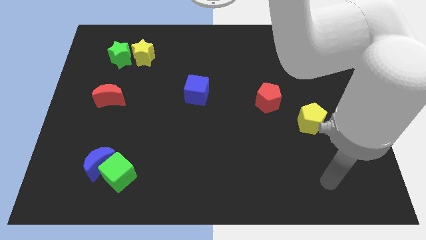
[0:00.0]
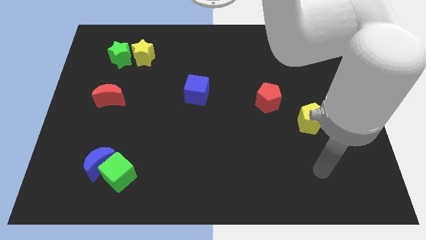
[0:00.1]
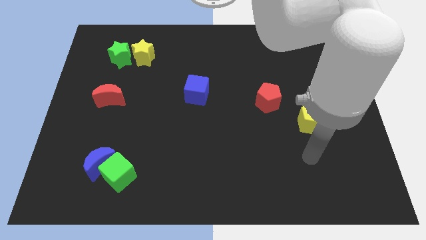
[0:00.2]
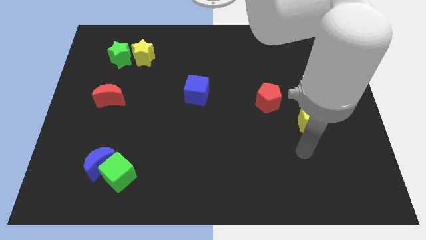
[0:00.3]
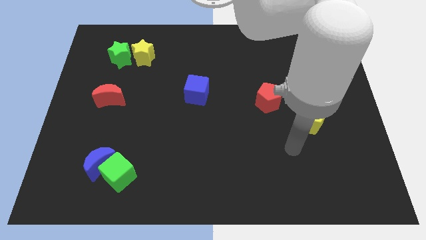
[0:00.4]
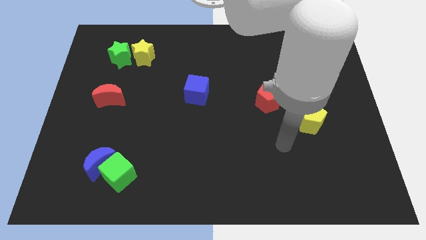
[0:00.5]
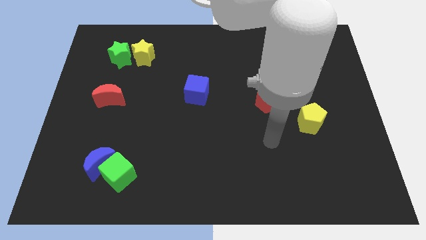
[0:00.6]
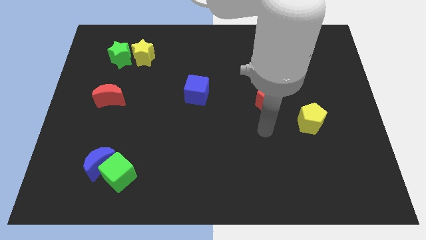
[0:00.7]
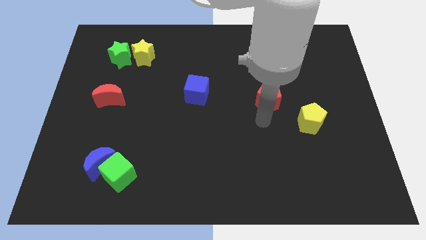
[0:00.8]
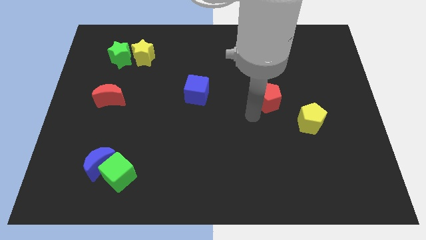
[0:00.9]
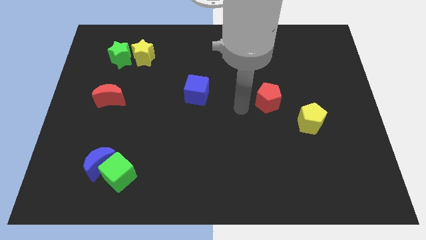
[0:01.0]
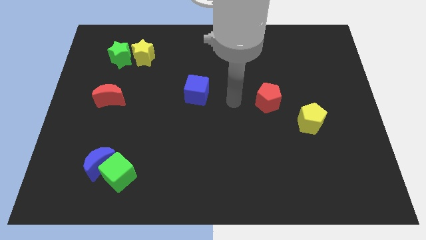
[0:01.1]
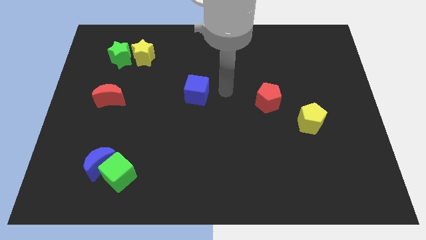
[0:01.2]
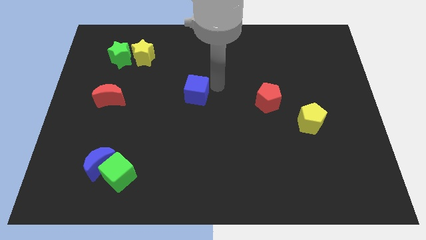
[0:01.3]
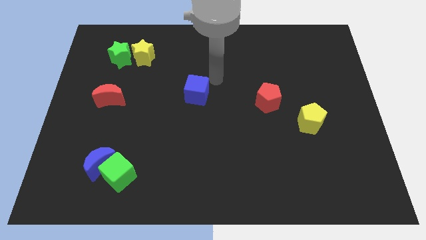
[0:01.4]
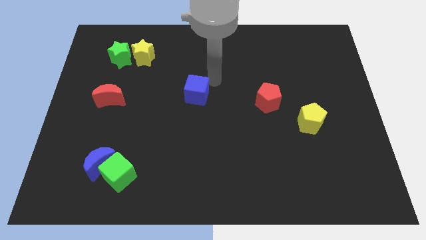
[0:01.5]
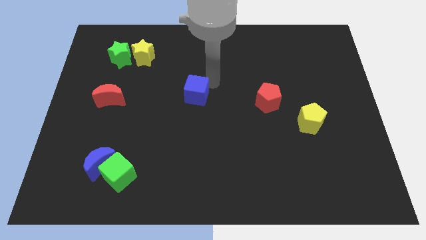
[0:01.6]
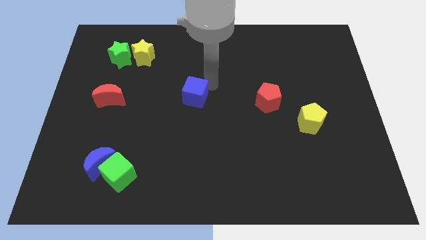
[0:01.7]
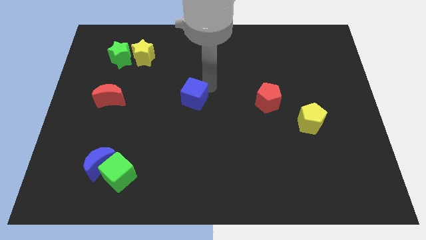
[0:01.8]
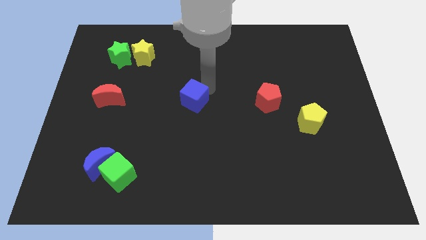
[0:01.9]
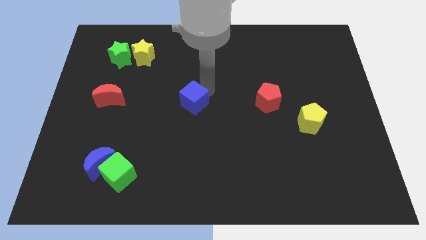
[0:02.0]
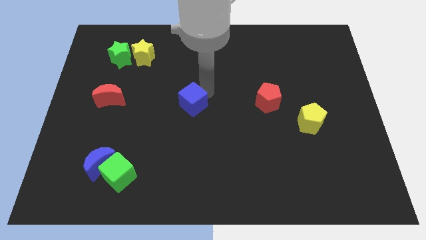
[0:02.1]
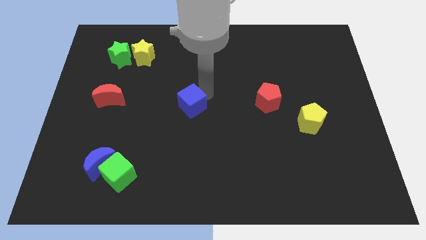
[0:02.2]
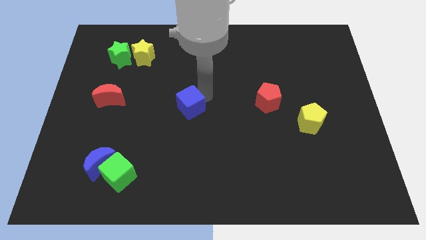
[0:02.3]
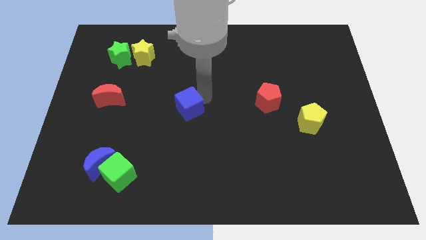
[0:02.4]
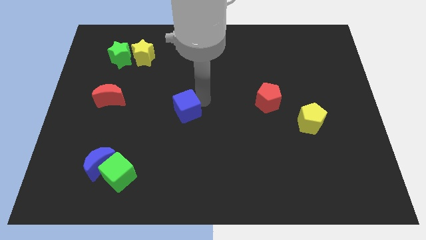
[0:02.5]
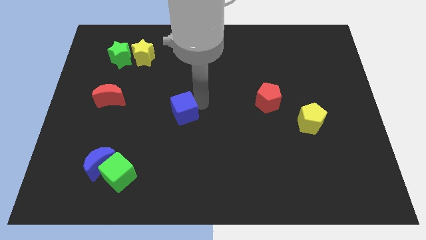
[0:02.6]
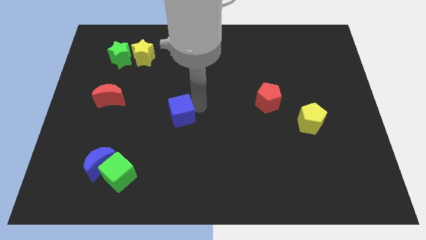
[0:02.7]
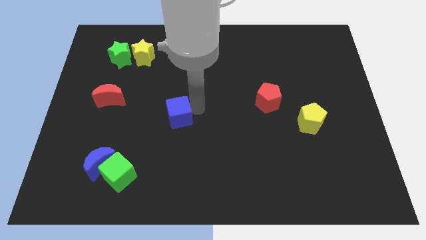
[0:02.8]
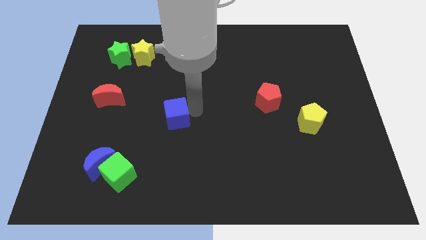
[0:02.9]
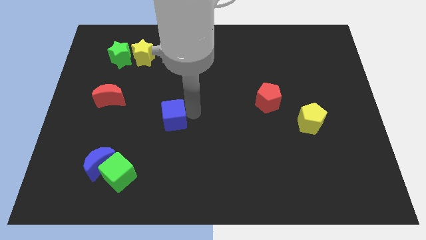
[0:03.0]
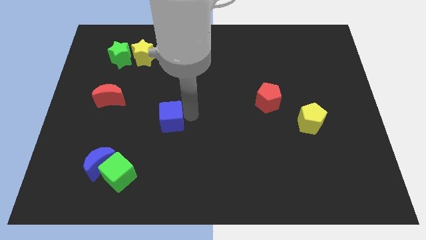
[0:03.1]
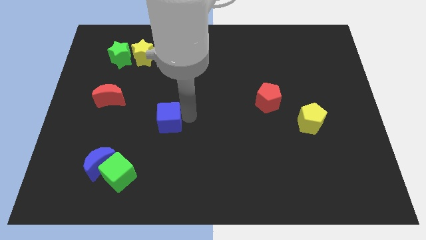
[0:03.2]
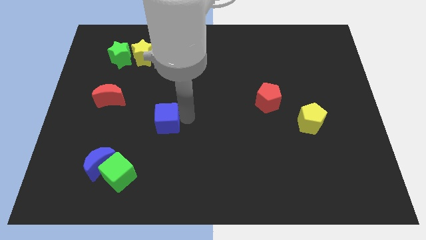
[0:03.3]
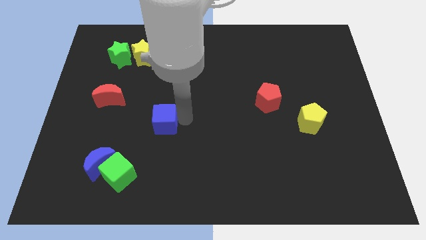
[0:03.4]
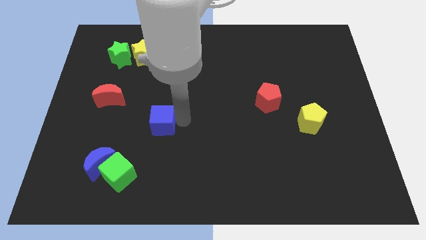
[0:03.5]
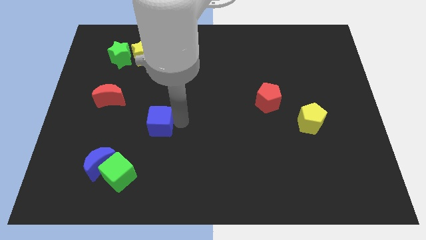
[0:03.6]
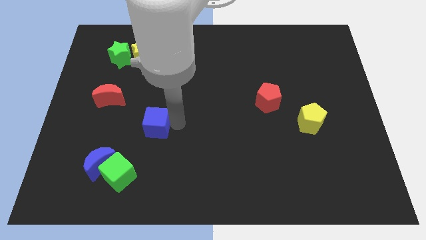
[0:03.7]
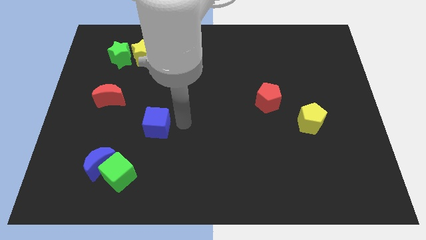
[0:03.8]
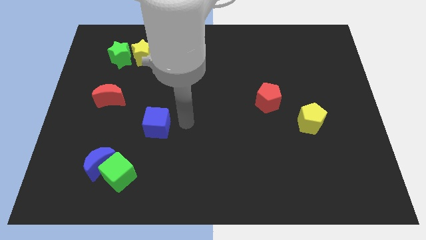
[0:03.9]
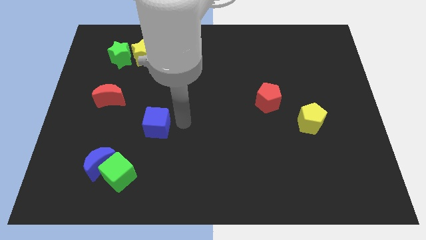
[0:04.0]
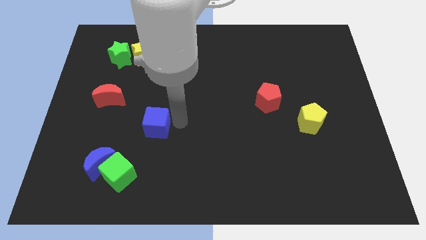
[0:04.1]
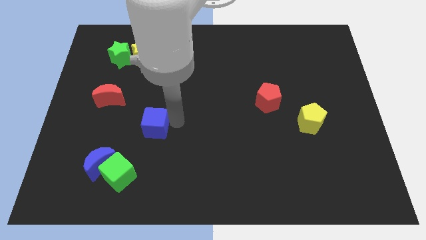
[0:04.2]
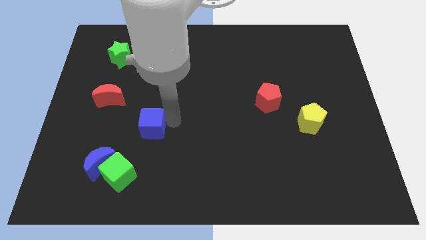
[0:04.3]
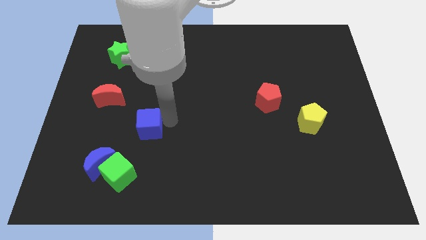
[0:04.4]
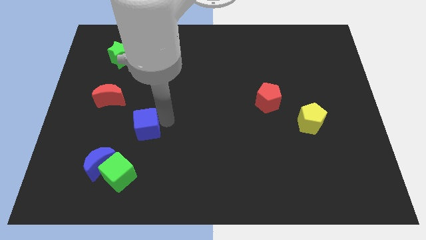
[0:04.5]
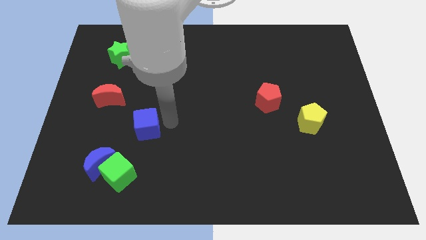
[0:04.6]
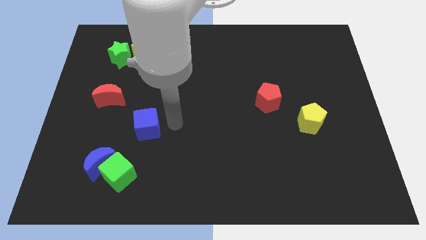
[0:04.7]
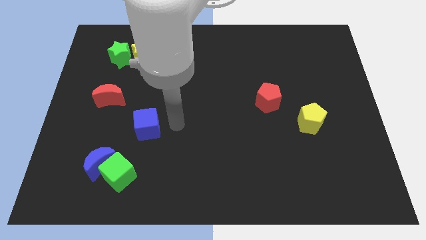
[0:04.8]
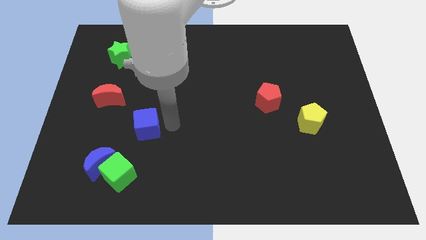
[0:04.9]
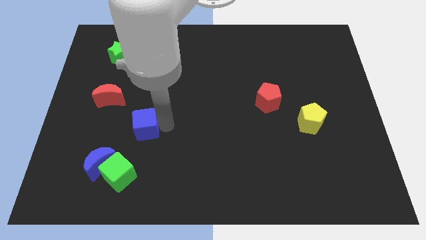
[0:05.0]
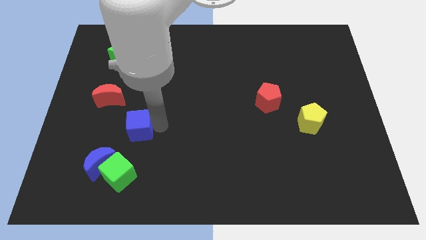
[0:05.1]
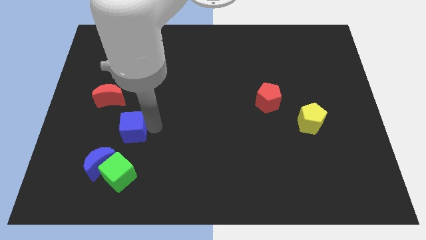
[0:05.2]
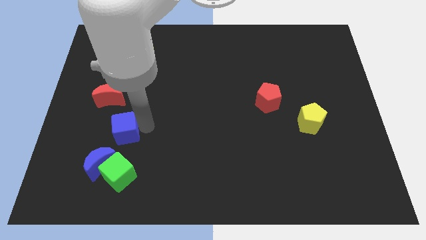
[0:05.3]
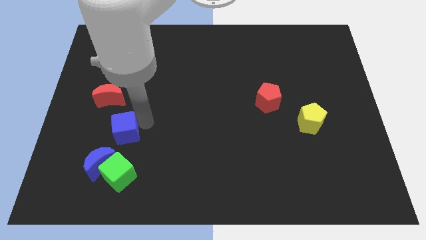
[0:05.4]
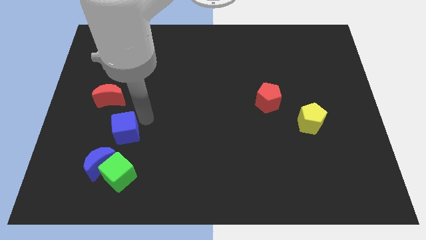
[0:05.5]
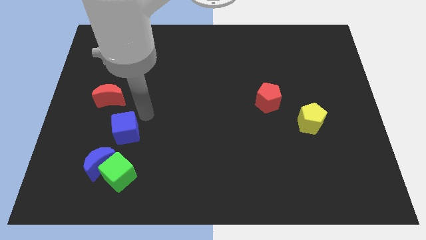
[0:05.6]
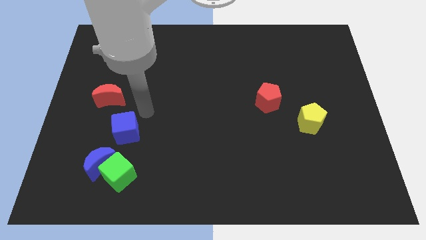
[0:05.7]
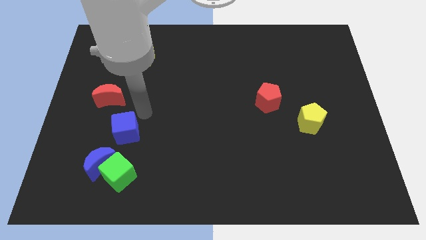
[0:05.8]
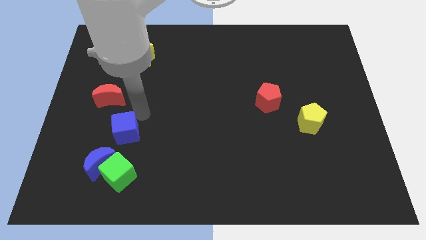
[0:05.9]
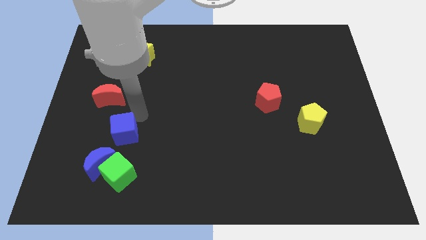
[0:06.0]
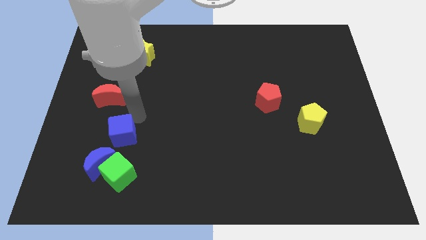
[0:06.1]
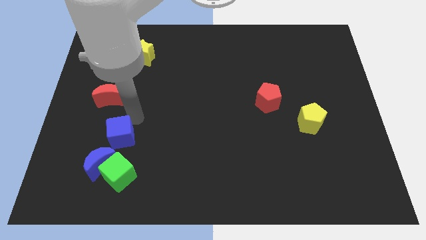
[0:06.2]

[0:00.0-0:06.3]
push the blue cube down and left diagonally

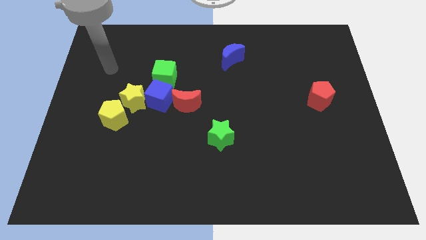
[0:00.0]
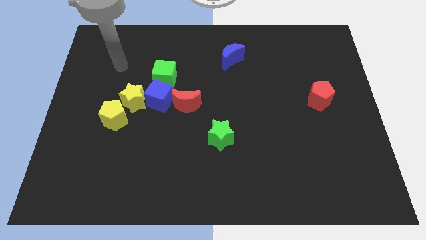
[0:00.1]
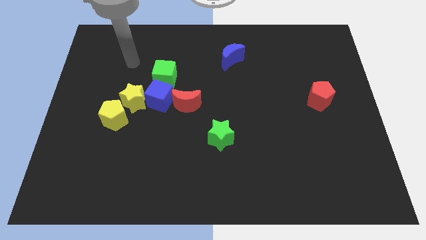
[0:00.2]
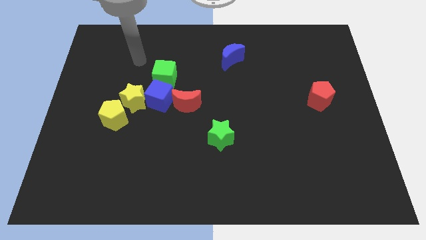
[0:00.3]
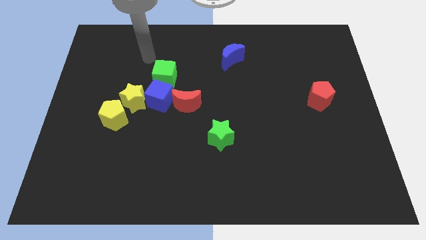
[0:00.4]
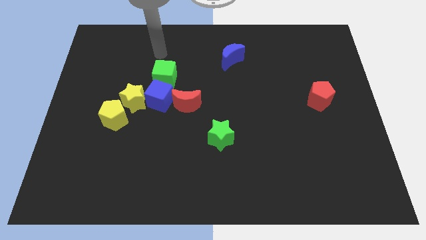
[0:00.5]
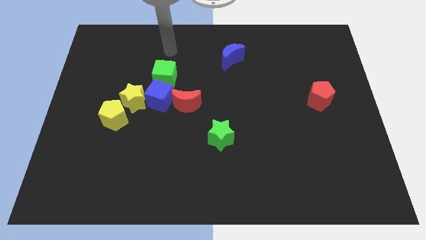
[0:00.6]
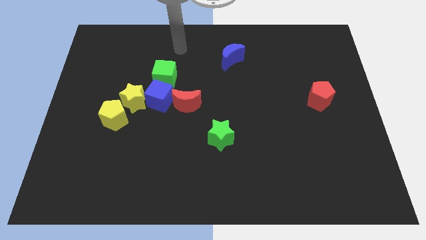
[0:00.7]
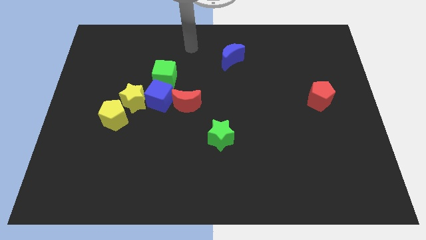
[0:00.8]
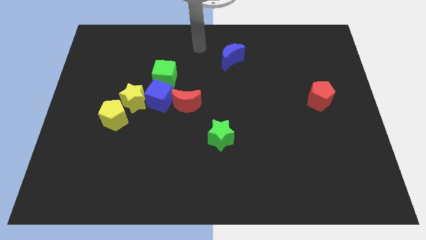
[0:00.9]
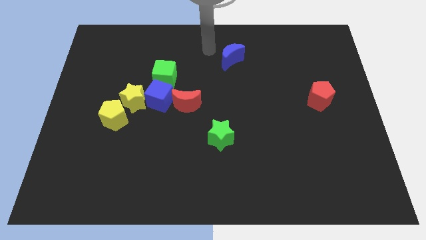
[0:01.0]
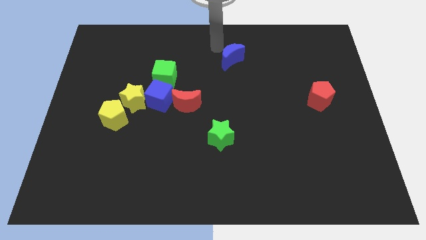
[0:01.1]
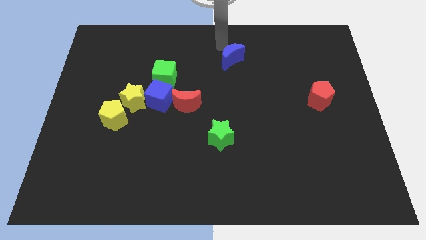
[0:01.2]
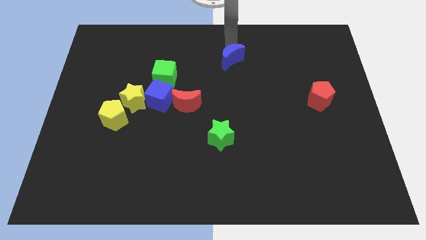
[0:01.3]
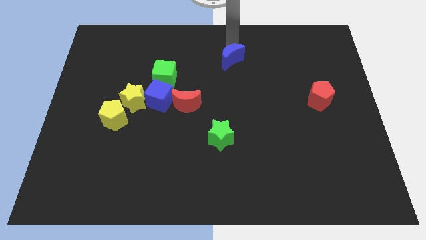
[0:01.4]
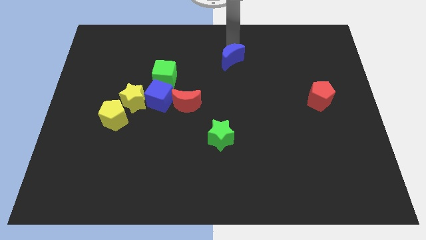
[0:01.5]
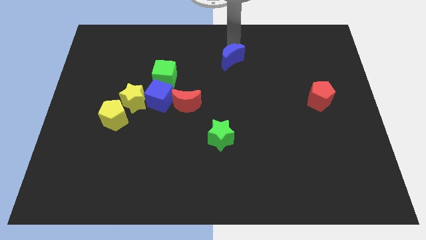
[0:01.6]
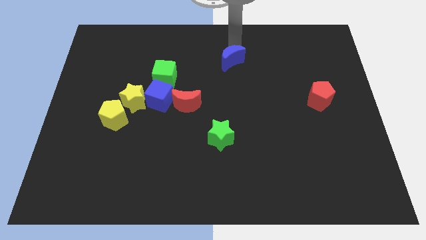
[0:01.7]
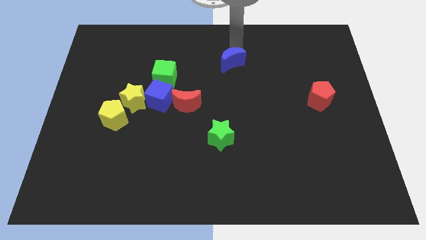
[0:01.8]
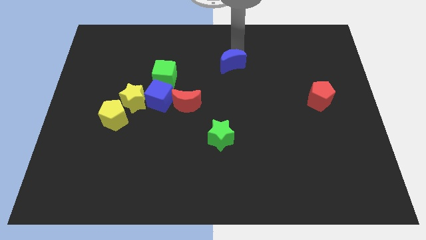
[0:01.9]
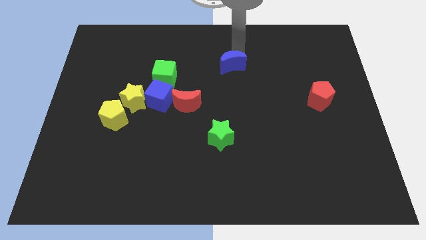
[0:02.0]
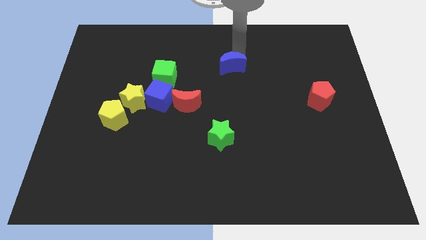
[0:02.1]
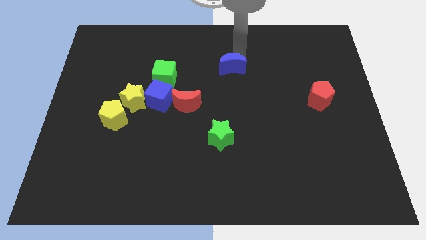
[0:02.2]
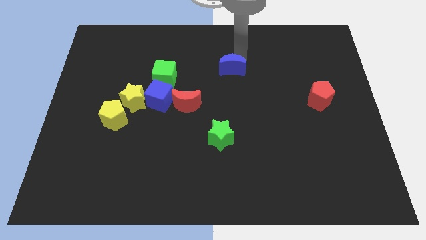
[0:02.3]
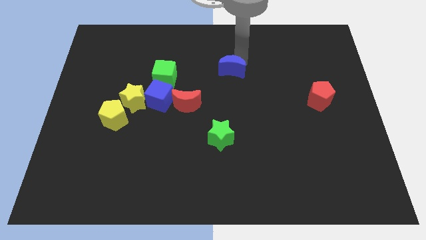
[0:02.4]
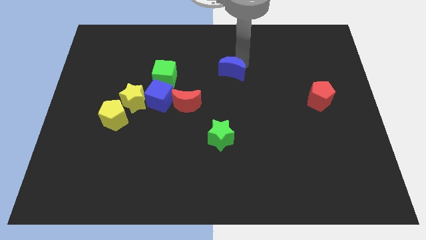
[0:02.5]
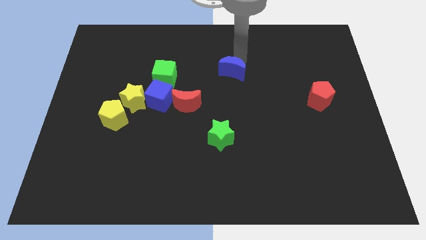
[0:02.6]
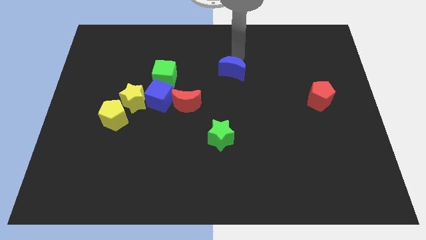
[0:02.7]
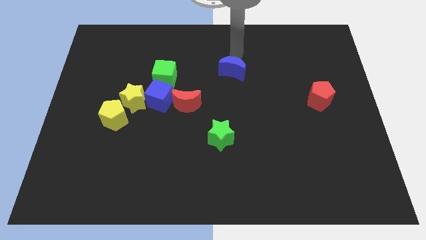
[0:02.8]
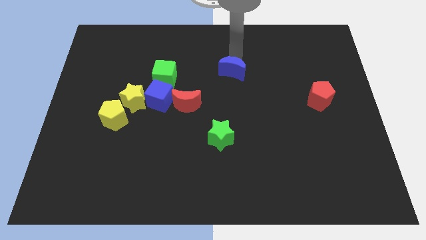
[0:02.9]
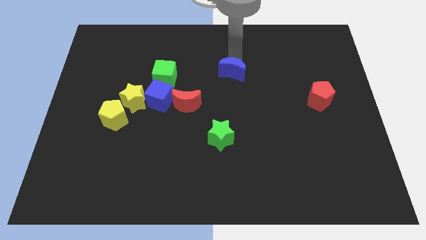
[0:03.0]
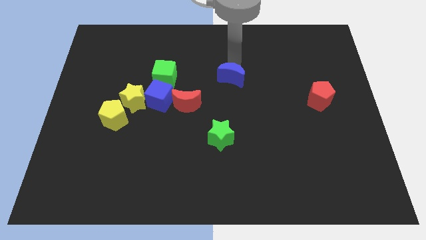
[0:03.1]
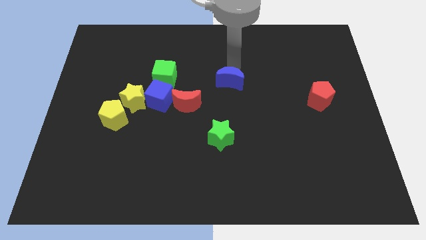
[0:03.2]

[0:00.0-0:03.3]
slightly slide the blue moon downwards
